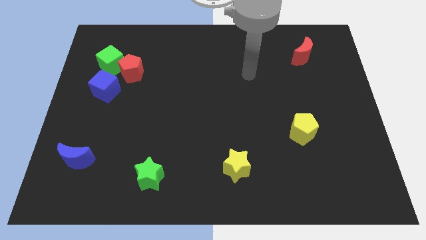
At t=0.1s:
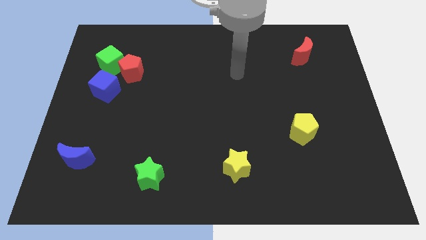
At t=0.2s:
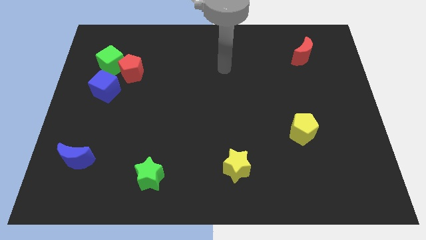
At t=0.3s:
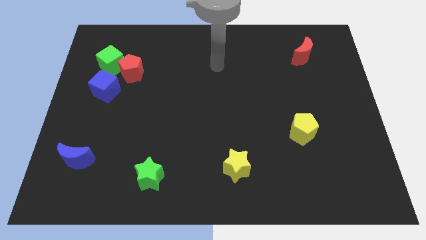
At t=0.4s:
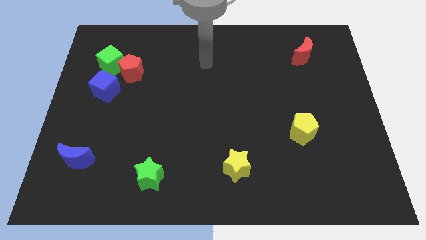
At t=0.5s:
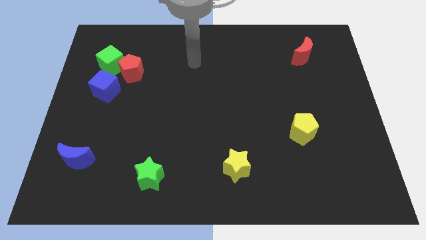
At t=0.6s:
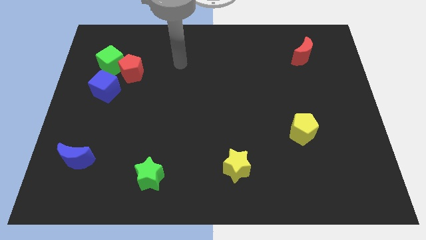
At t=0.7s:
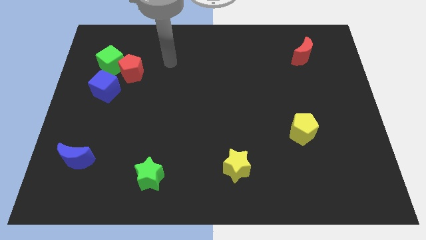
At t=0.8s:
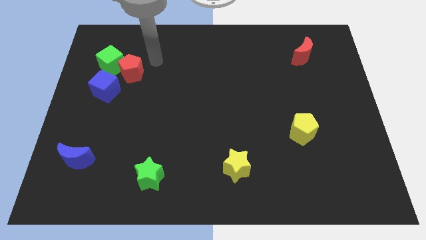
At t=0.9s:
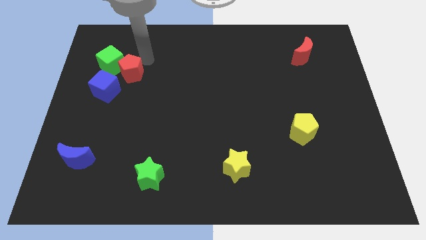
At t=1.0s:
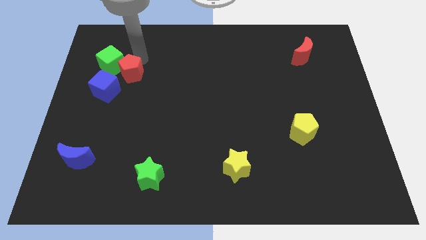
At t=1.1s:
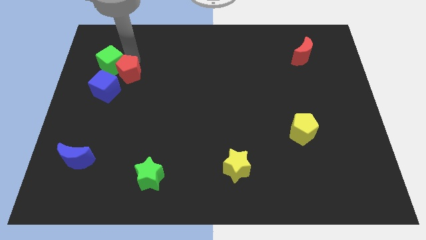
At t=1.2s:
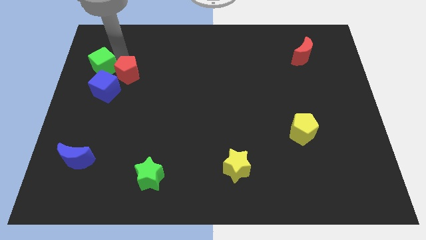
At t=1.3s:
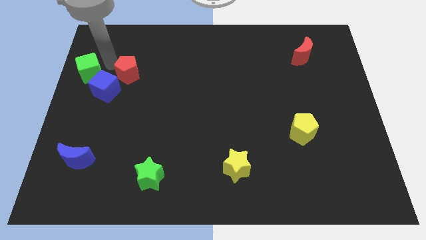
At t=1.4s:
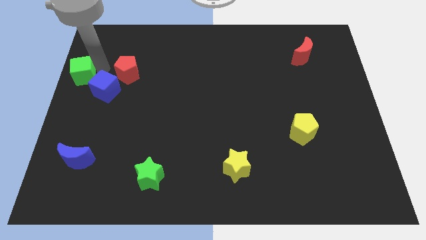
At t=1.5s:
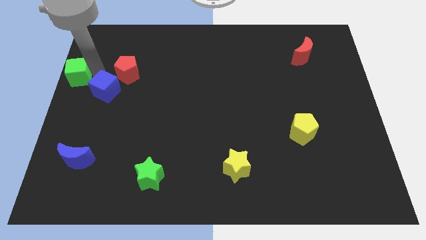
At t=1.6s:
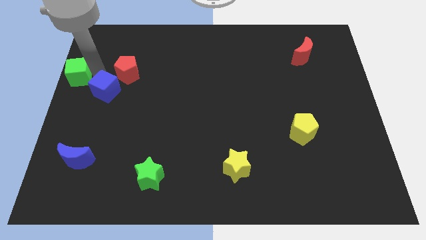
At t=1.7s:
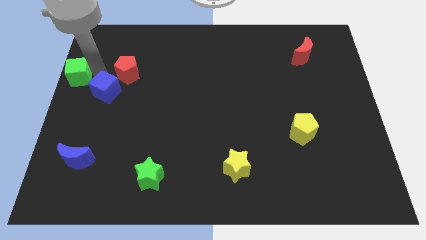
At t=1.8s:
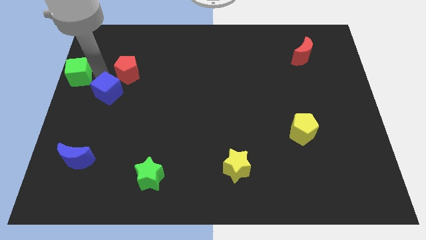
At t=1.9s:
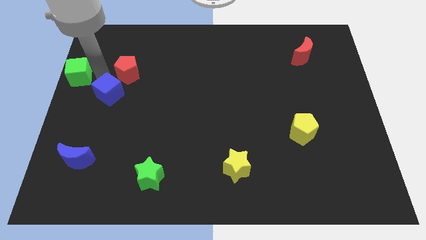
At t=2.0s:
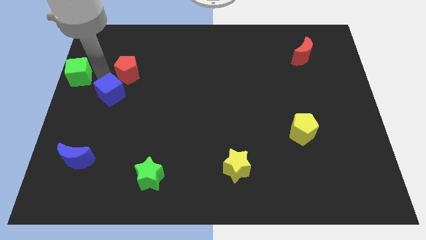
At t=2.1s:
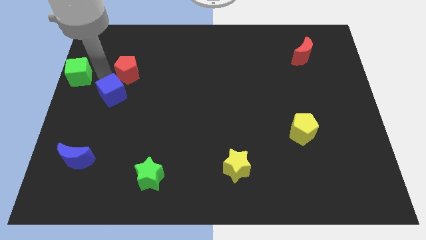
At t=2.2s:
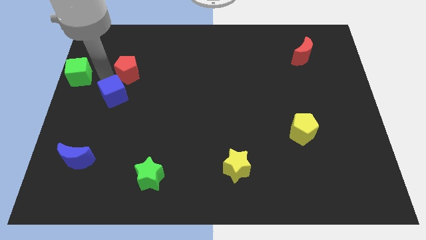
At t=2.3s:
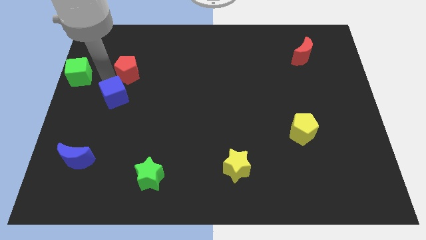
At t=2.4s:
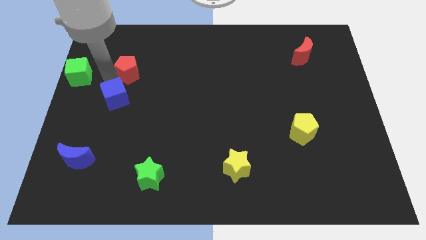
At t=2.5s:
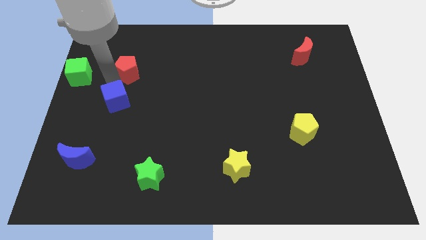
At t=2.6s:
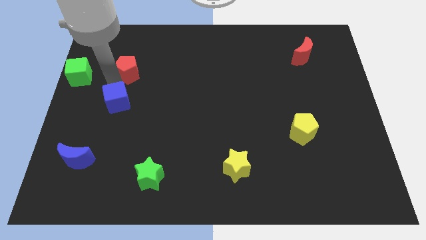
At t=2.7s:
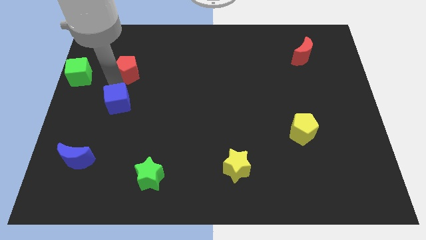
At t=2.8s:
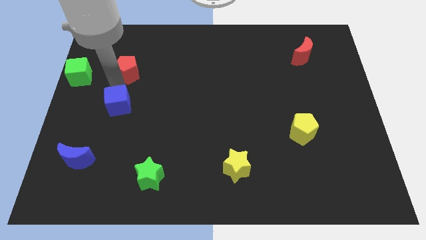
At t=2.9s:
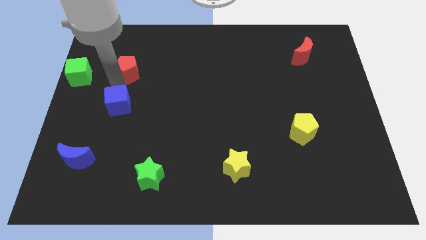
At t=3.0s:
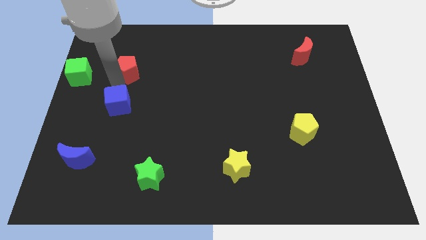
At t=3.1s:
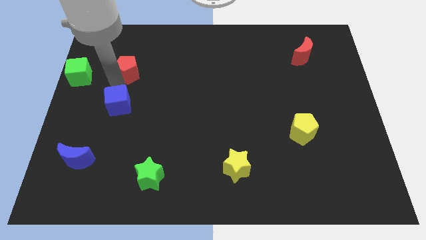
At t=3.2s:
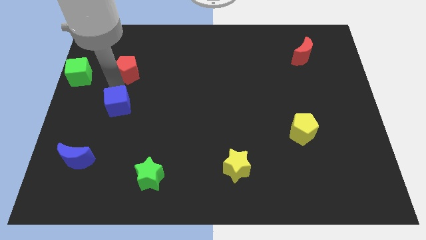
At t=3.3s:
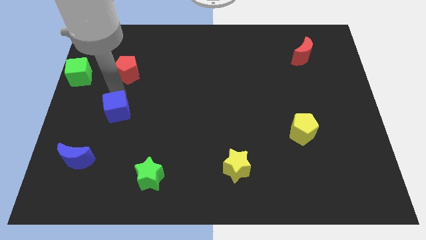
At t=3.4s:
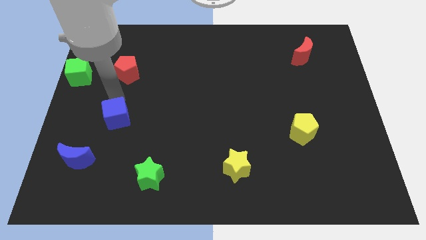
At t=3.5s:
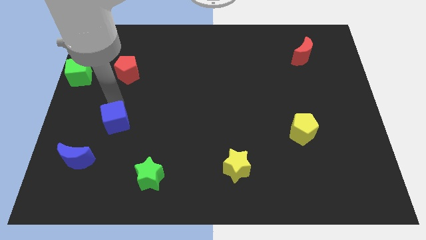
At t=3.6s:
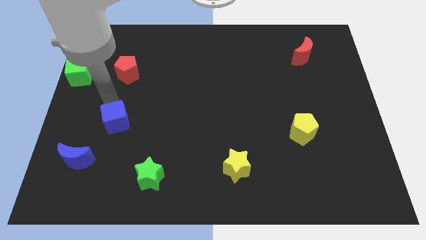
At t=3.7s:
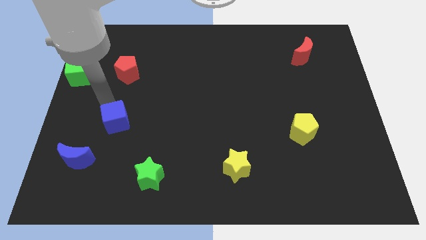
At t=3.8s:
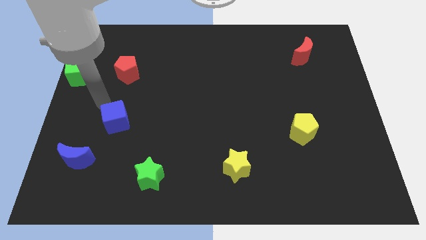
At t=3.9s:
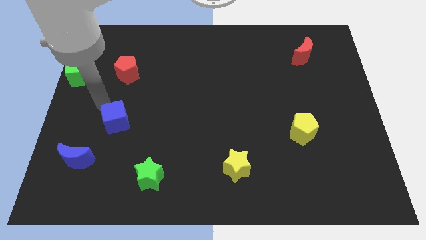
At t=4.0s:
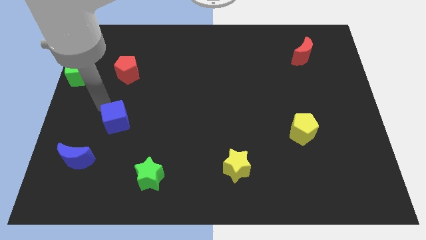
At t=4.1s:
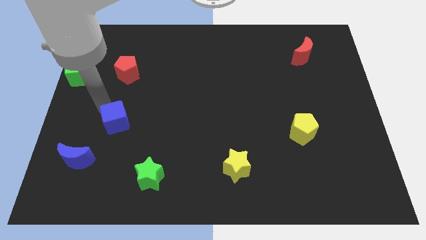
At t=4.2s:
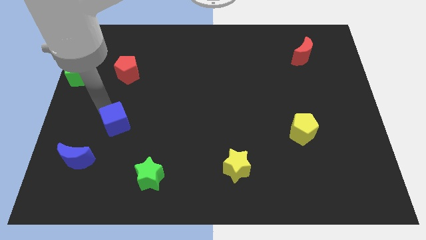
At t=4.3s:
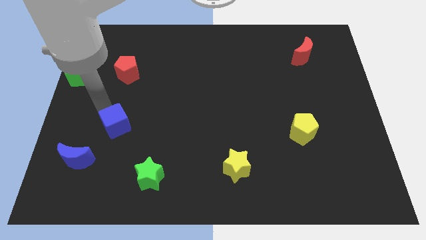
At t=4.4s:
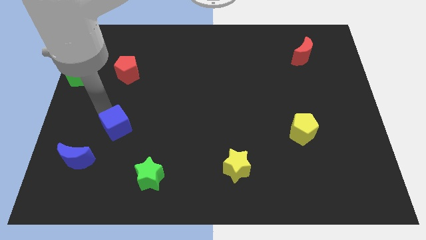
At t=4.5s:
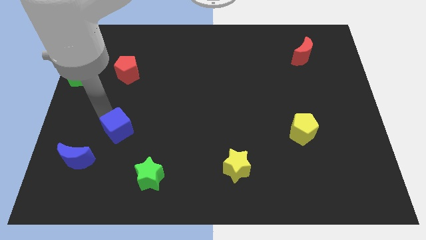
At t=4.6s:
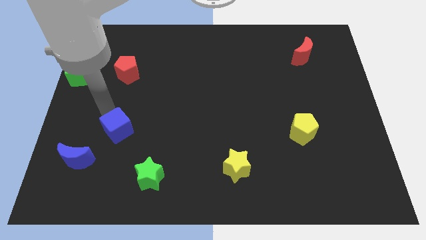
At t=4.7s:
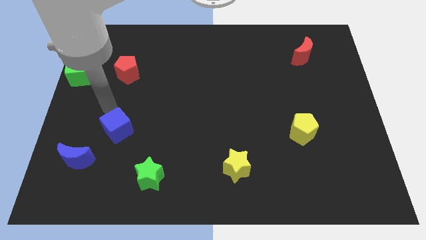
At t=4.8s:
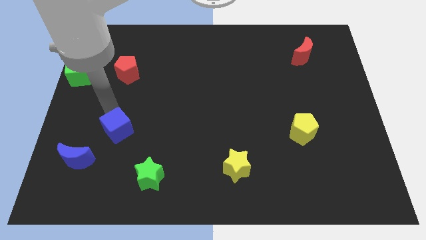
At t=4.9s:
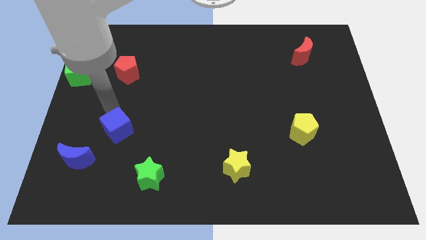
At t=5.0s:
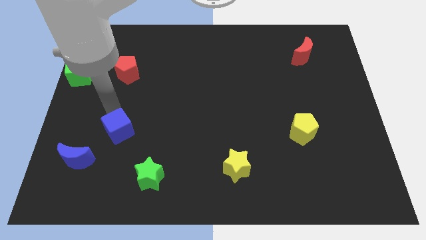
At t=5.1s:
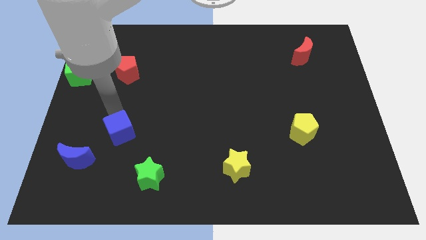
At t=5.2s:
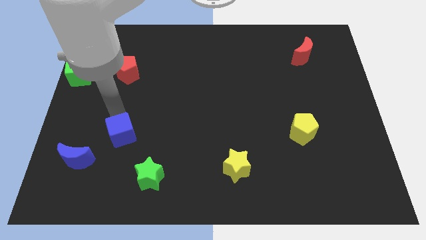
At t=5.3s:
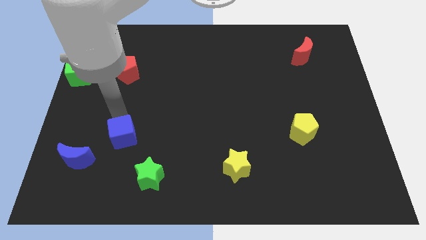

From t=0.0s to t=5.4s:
slide the blue cube to the top left of the green star

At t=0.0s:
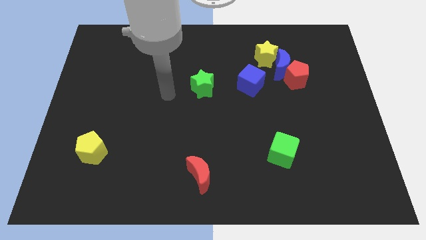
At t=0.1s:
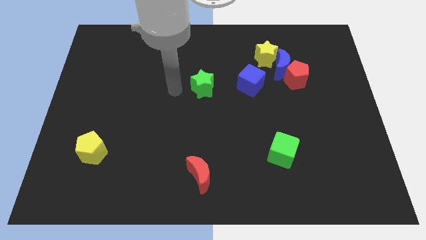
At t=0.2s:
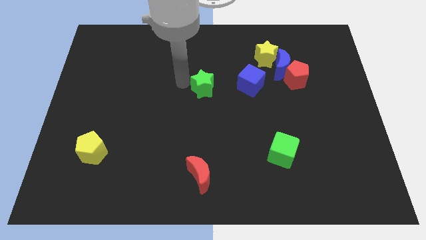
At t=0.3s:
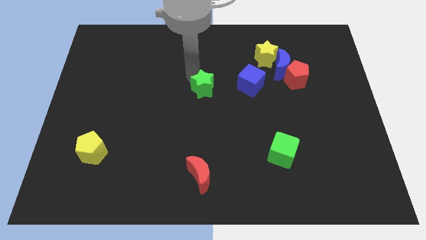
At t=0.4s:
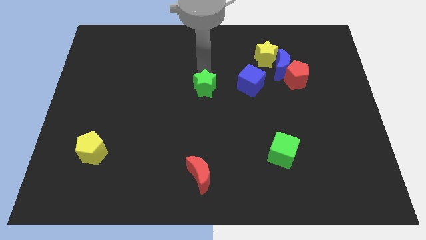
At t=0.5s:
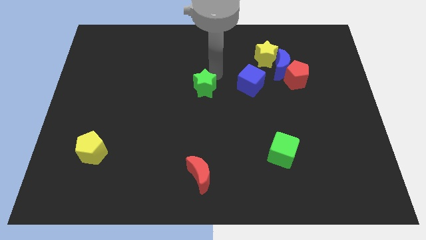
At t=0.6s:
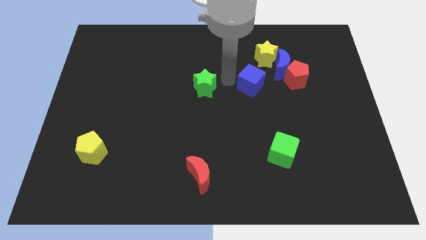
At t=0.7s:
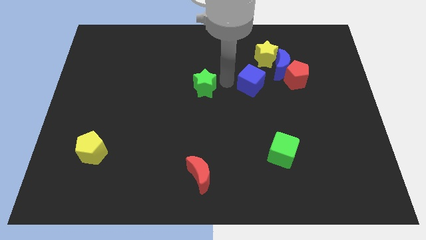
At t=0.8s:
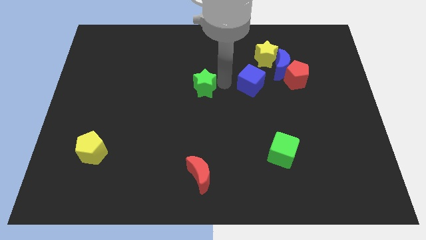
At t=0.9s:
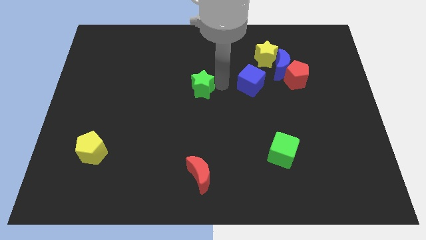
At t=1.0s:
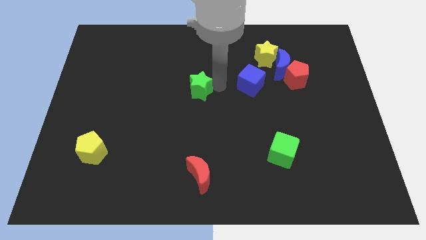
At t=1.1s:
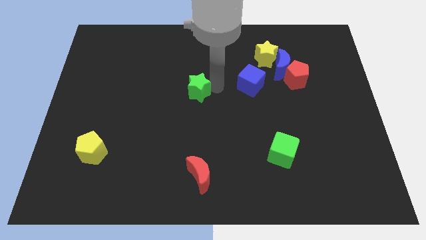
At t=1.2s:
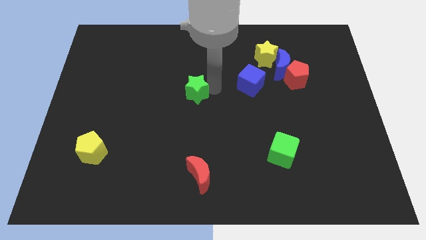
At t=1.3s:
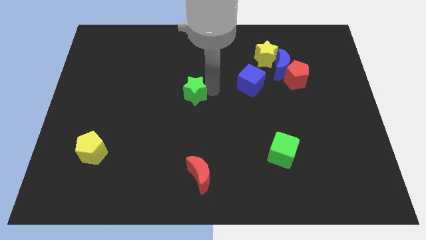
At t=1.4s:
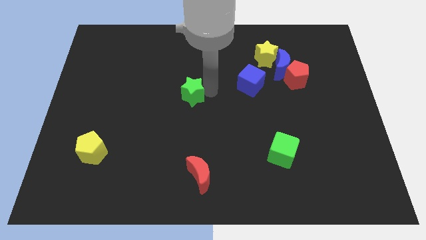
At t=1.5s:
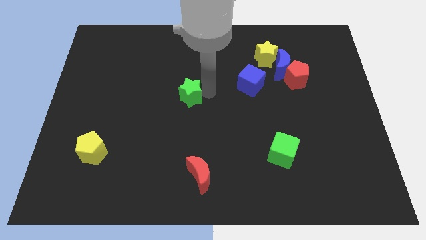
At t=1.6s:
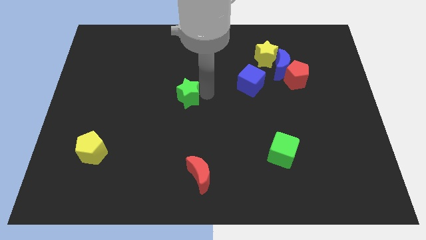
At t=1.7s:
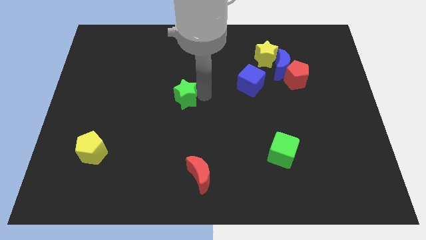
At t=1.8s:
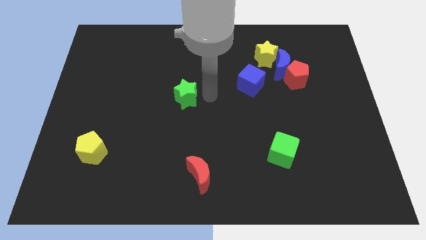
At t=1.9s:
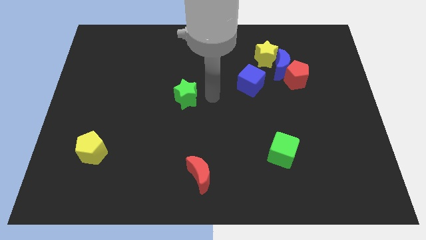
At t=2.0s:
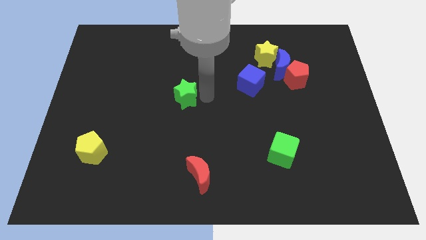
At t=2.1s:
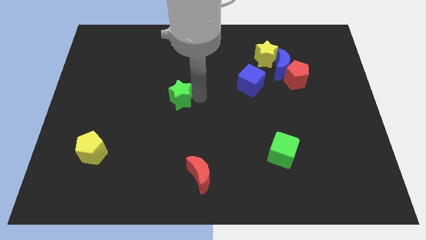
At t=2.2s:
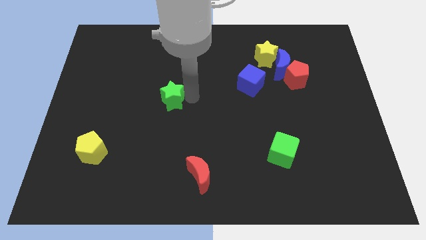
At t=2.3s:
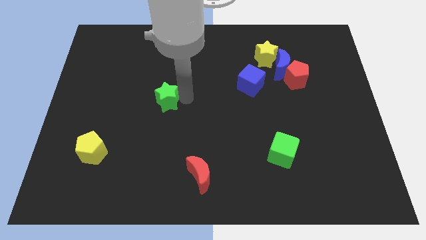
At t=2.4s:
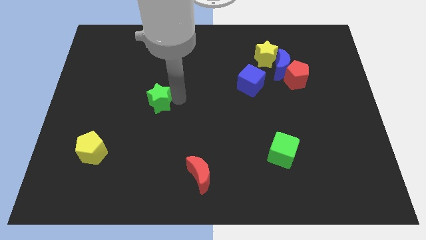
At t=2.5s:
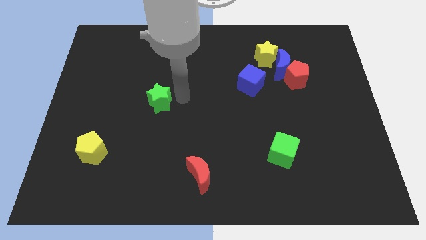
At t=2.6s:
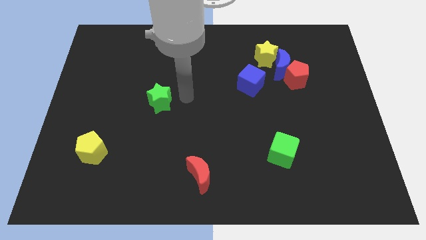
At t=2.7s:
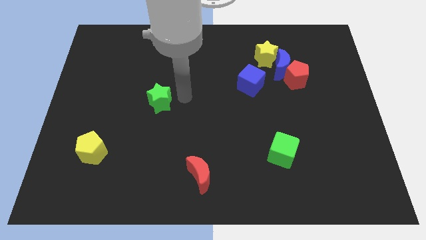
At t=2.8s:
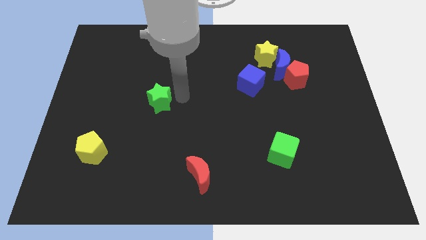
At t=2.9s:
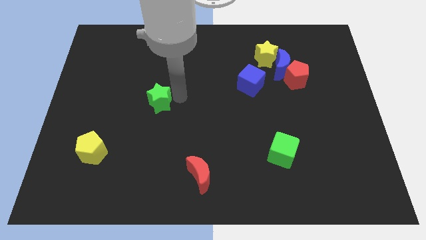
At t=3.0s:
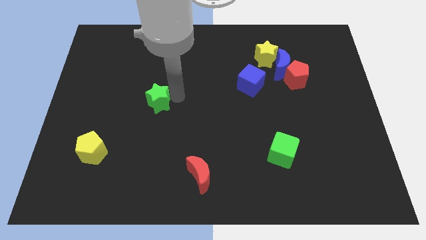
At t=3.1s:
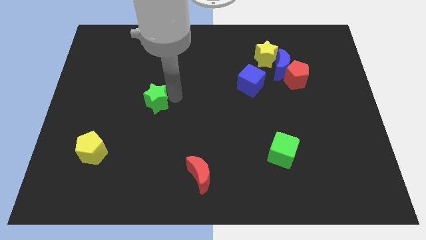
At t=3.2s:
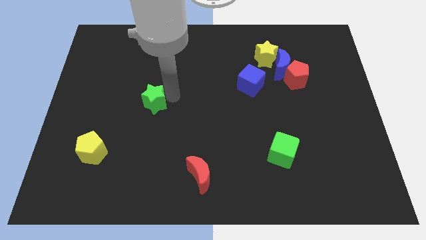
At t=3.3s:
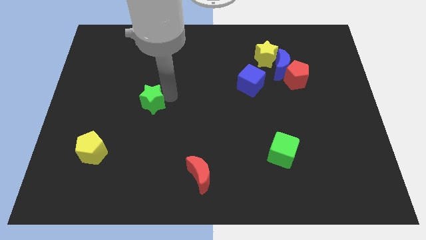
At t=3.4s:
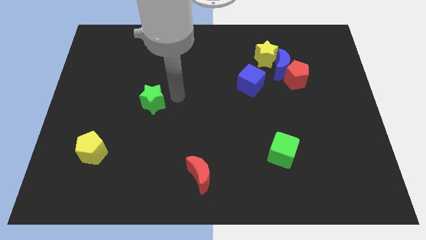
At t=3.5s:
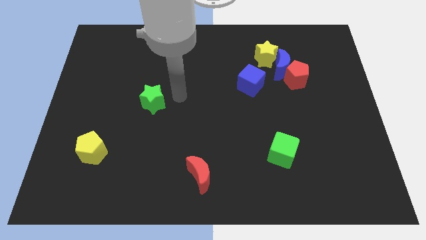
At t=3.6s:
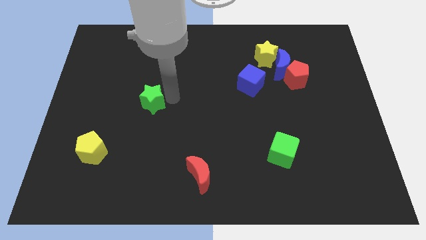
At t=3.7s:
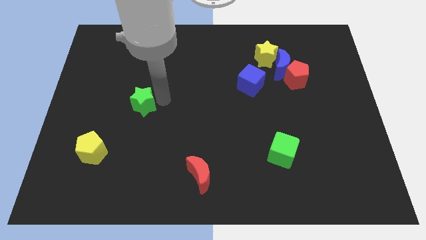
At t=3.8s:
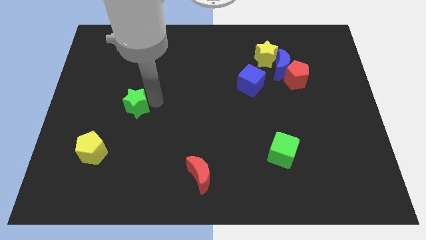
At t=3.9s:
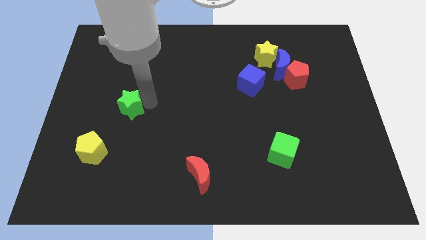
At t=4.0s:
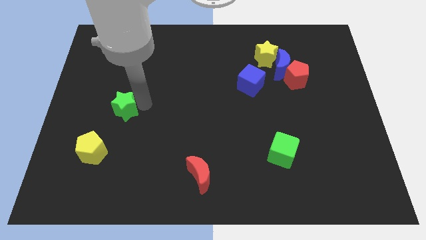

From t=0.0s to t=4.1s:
push the green star above the yellow pentagon
